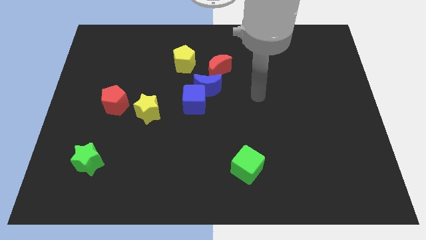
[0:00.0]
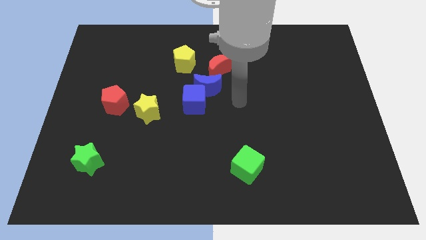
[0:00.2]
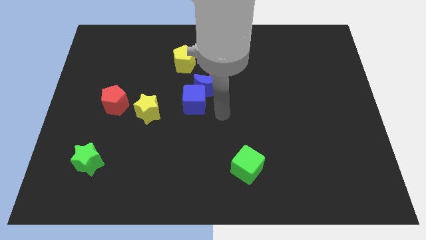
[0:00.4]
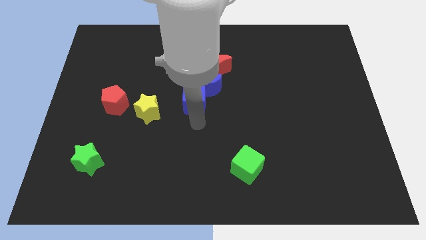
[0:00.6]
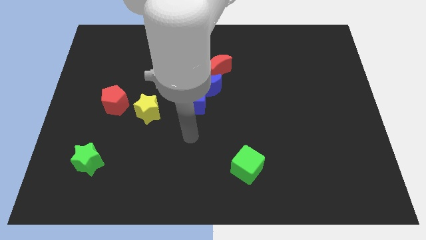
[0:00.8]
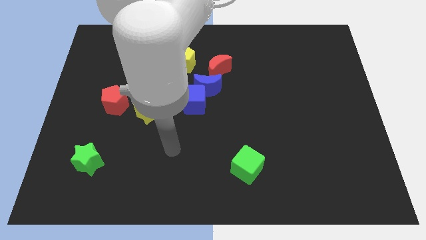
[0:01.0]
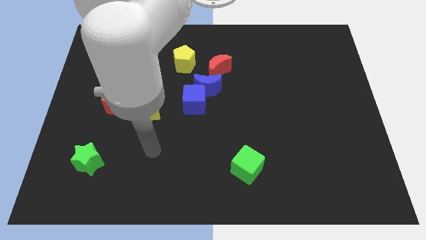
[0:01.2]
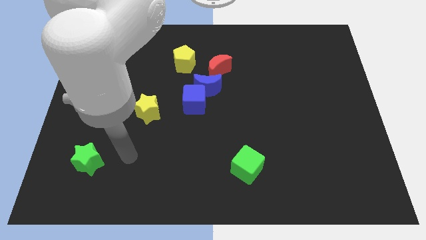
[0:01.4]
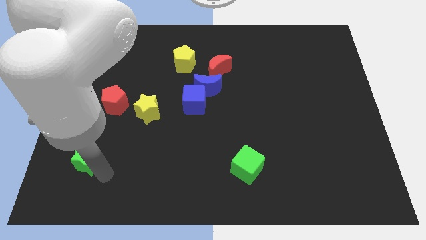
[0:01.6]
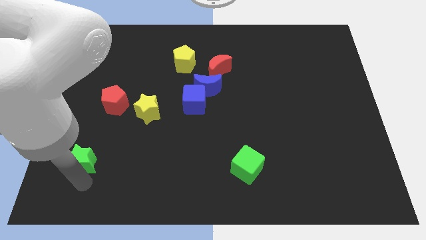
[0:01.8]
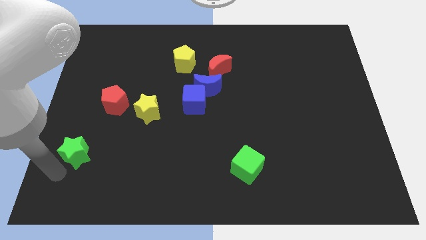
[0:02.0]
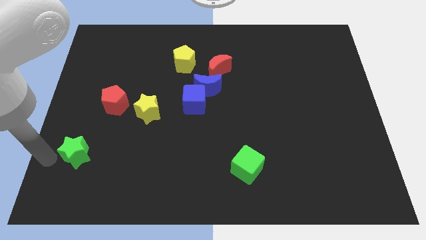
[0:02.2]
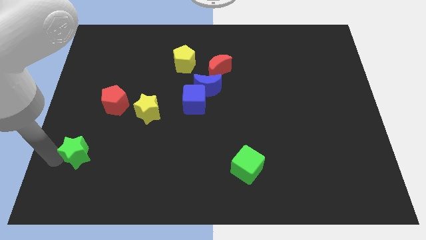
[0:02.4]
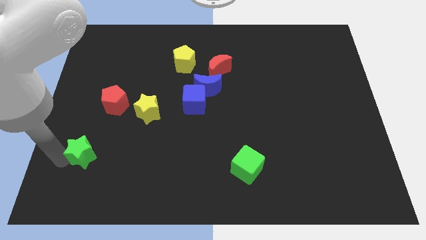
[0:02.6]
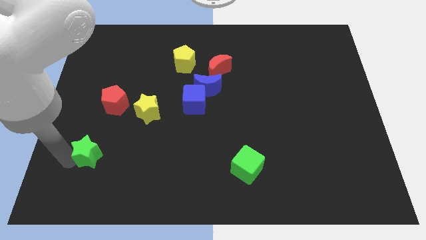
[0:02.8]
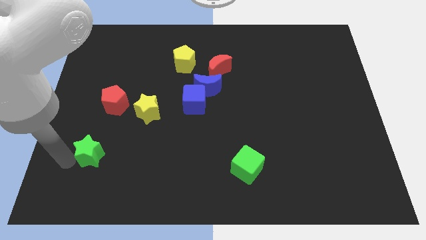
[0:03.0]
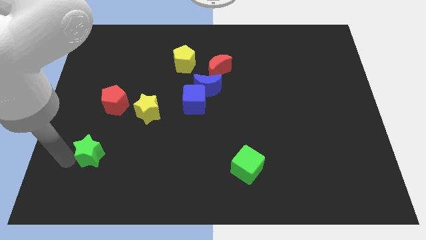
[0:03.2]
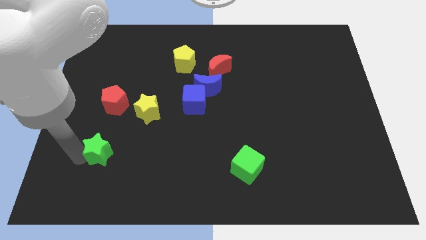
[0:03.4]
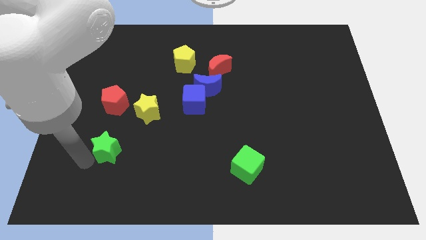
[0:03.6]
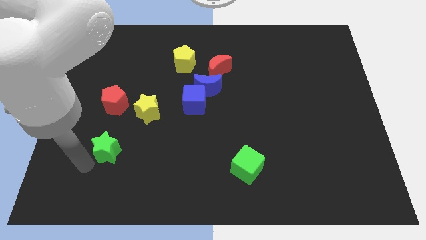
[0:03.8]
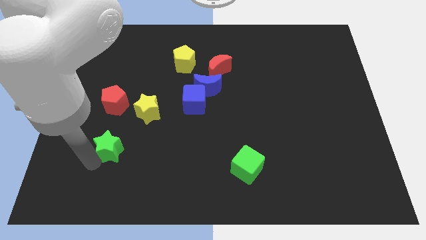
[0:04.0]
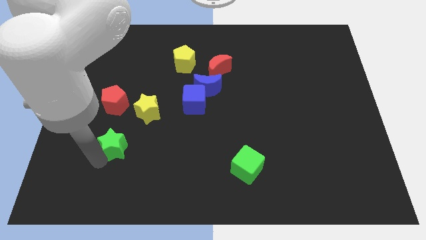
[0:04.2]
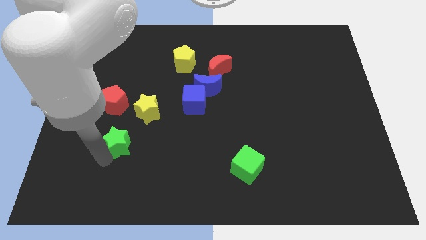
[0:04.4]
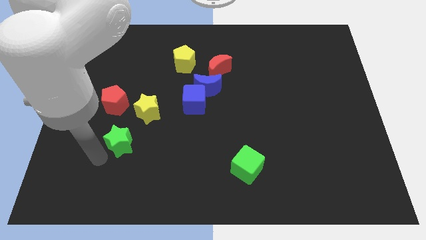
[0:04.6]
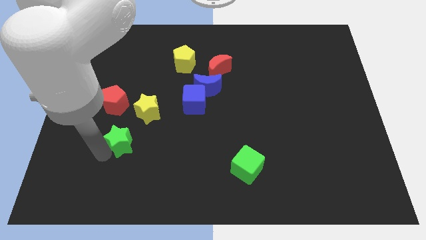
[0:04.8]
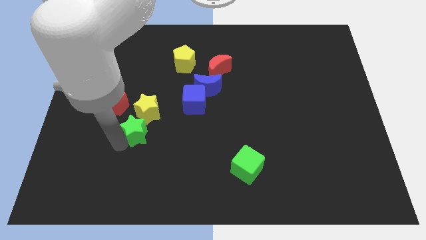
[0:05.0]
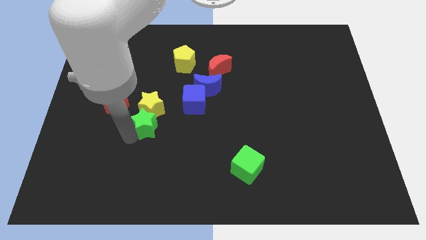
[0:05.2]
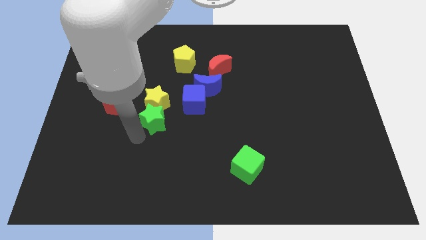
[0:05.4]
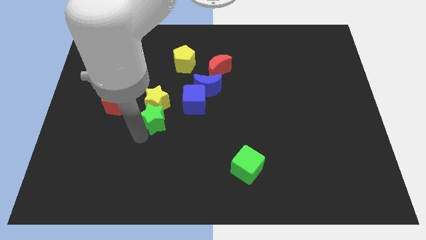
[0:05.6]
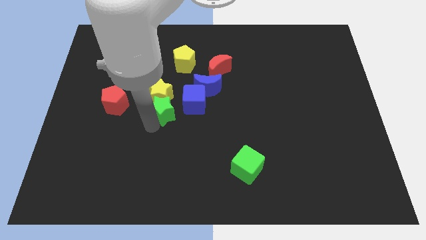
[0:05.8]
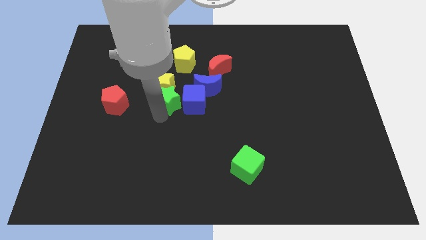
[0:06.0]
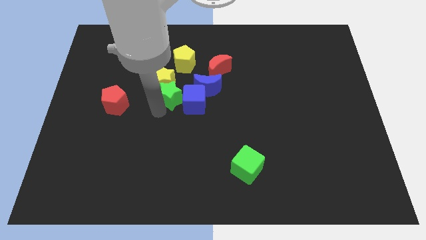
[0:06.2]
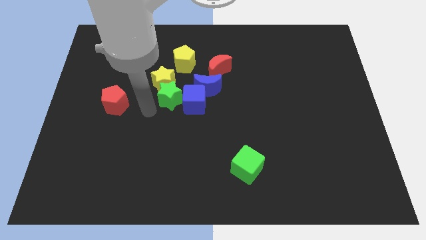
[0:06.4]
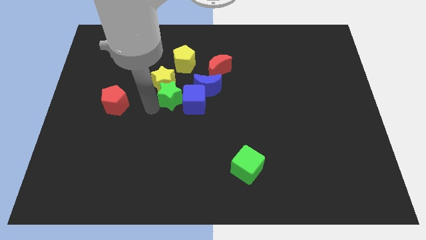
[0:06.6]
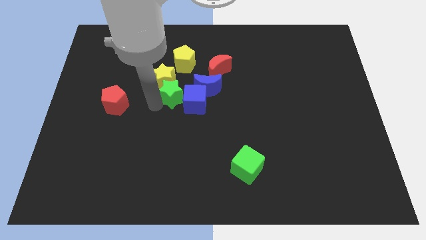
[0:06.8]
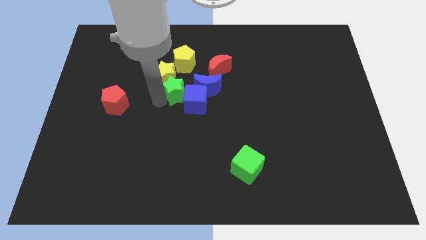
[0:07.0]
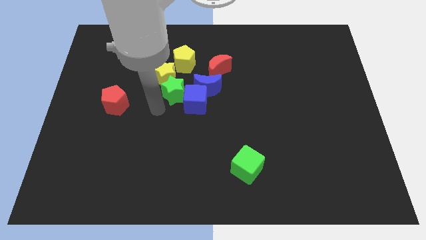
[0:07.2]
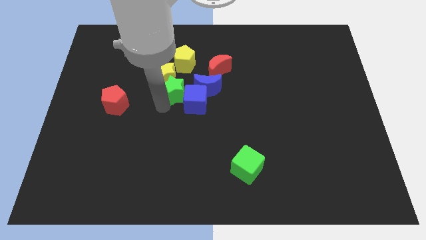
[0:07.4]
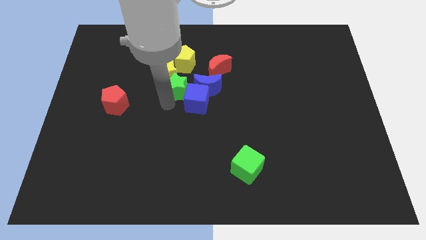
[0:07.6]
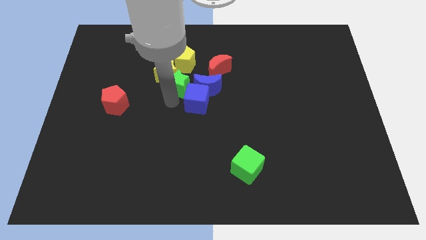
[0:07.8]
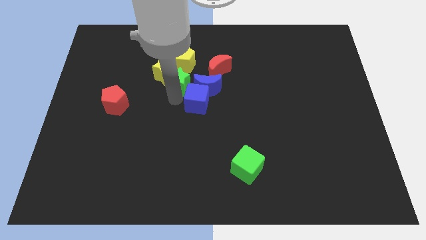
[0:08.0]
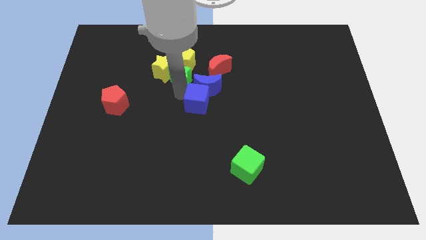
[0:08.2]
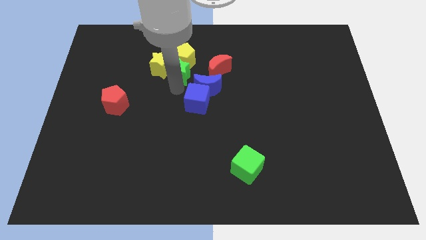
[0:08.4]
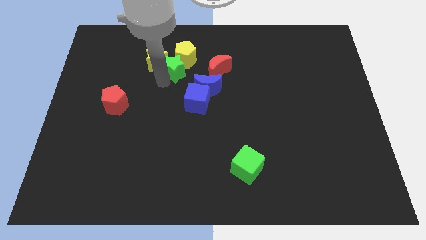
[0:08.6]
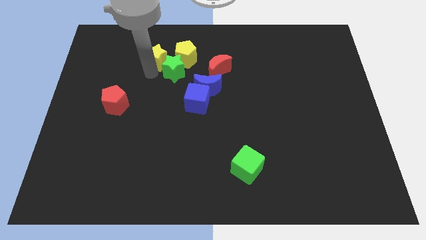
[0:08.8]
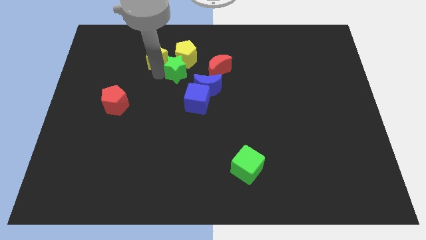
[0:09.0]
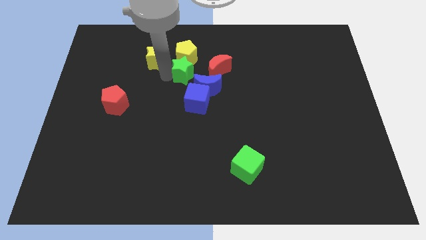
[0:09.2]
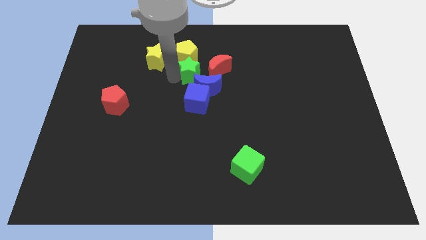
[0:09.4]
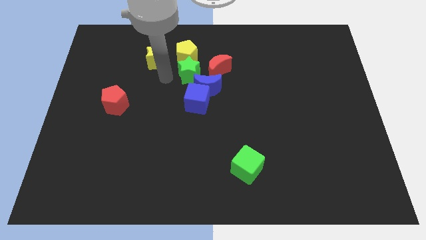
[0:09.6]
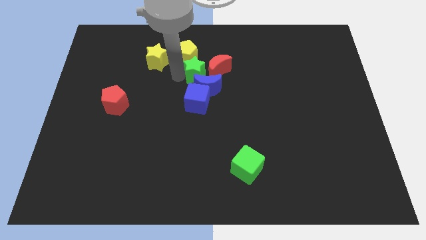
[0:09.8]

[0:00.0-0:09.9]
move the green star close to the red moon

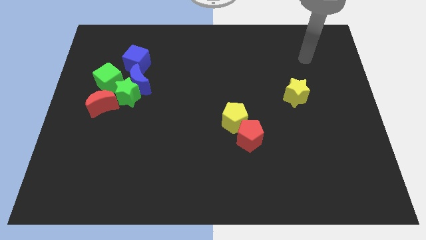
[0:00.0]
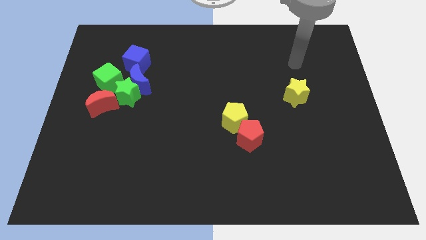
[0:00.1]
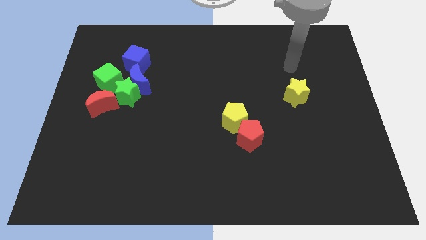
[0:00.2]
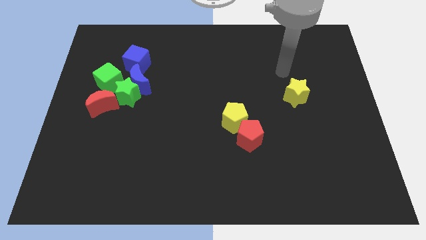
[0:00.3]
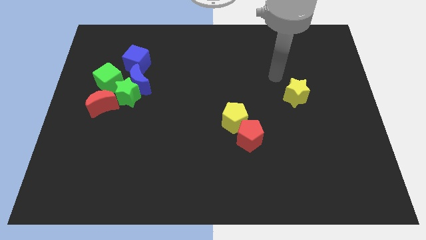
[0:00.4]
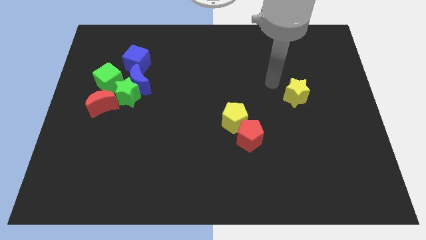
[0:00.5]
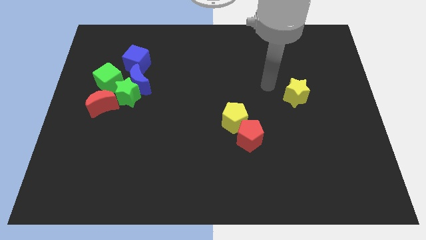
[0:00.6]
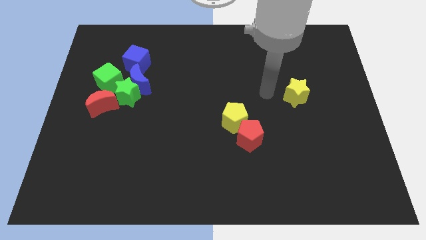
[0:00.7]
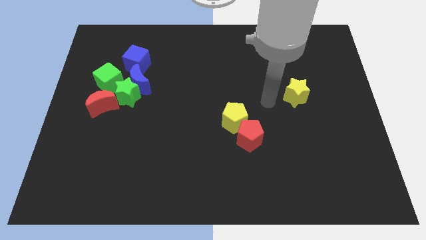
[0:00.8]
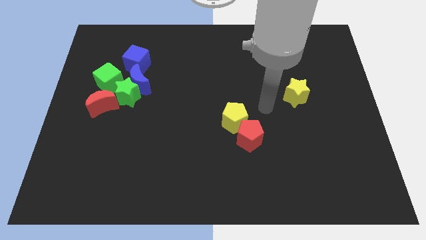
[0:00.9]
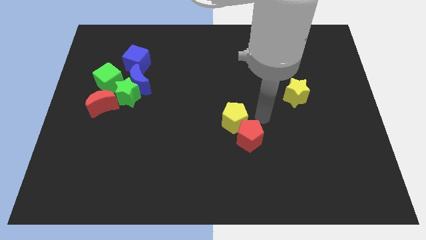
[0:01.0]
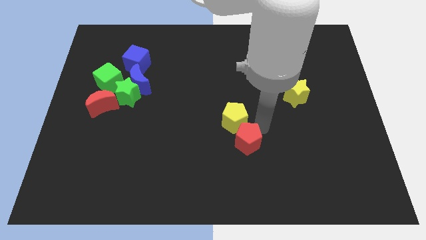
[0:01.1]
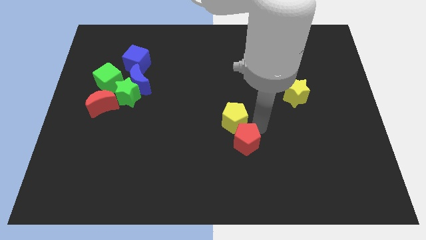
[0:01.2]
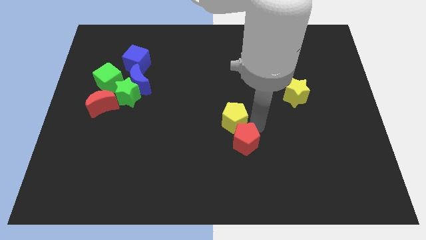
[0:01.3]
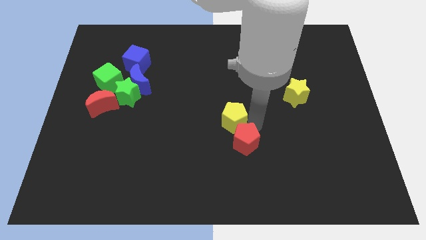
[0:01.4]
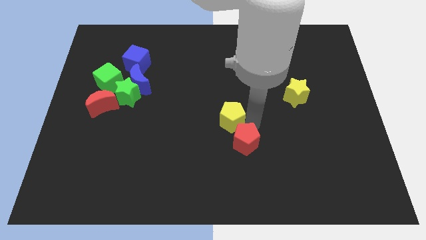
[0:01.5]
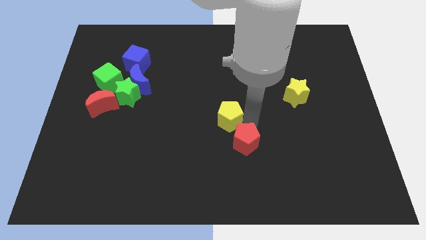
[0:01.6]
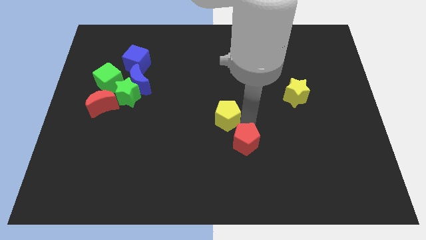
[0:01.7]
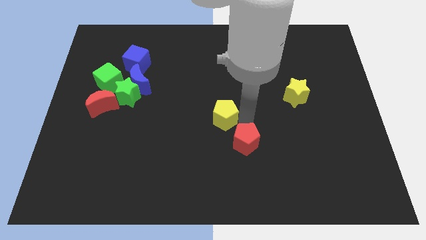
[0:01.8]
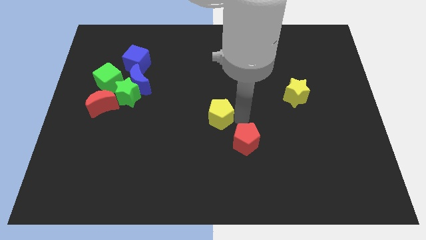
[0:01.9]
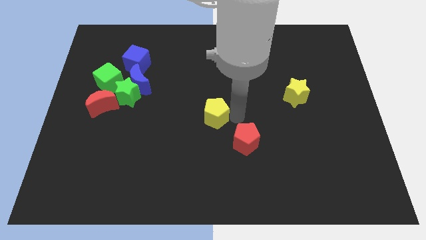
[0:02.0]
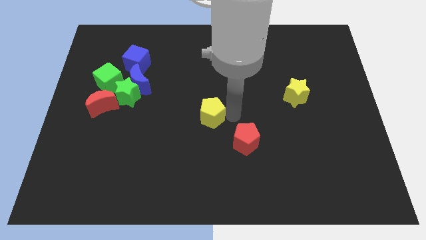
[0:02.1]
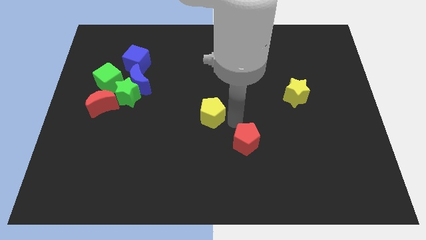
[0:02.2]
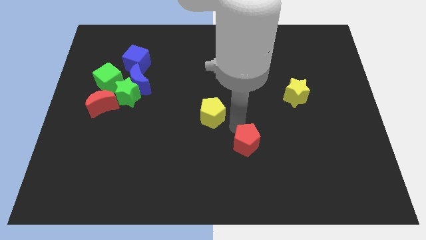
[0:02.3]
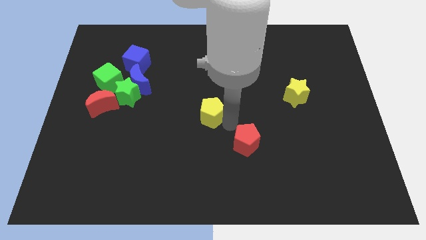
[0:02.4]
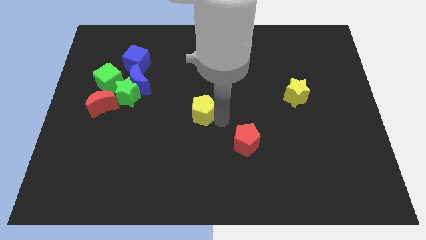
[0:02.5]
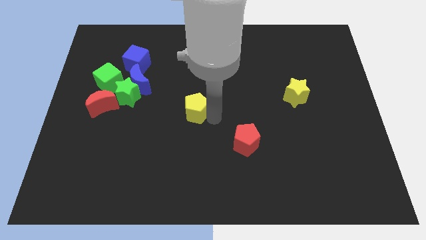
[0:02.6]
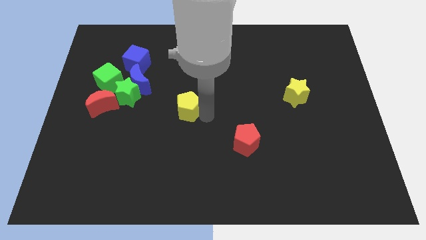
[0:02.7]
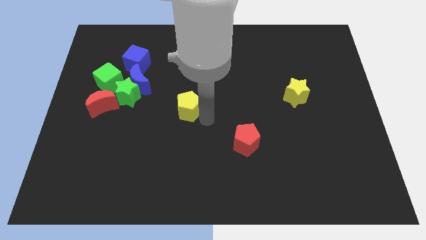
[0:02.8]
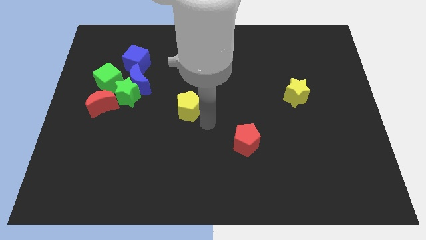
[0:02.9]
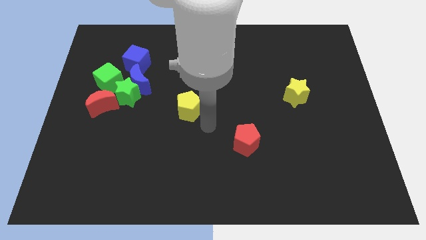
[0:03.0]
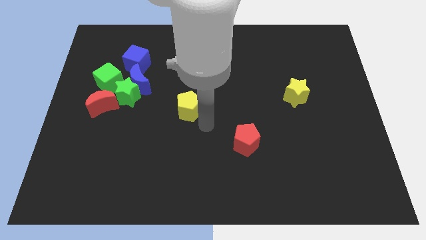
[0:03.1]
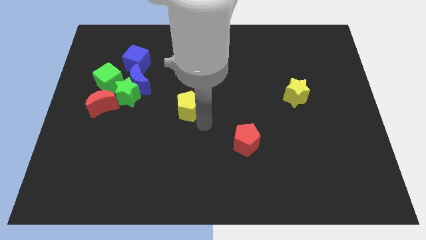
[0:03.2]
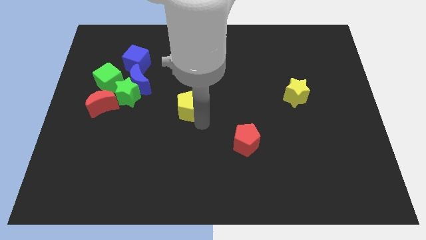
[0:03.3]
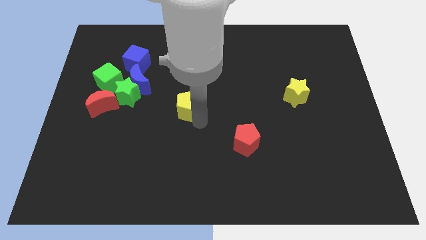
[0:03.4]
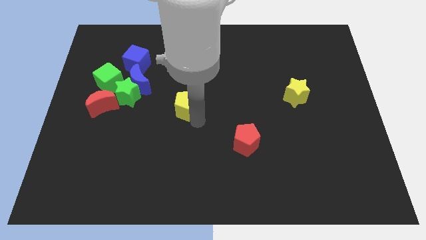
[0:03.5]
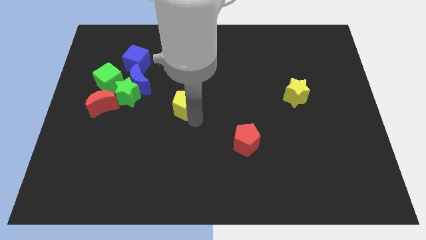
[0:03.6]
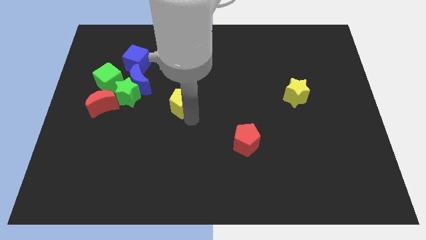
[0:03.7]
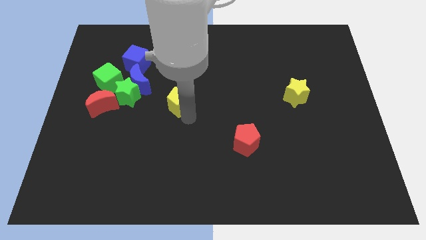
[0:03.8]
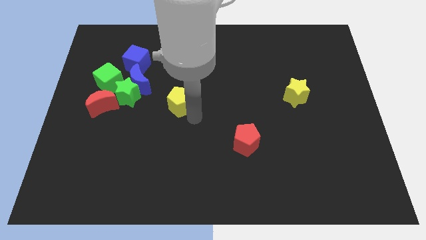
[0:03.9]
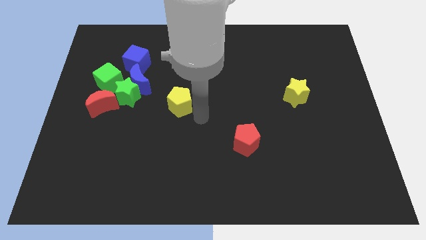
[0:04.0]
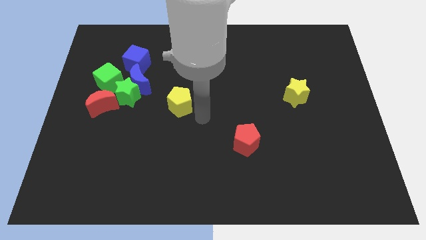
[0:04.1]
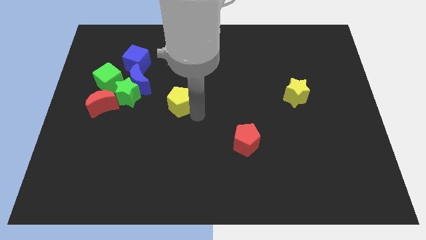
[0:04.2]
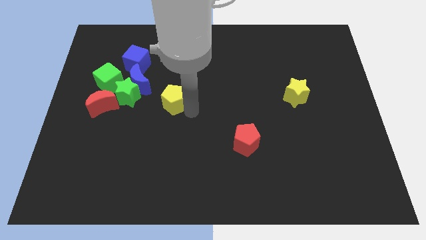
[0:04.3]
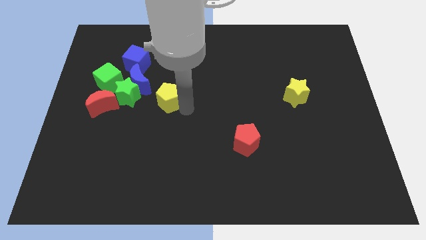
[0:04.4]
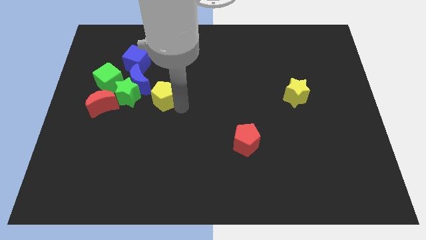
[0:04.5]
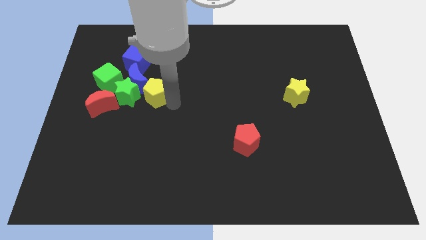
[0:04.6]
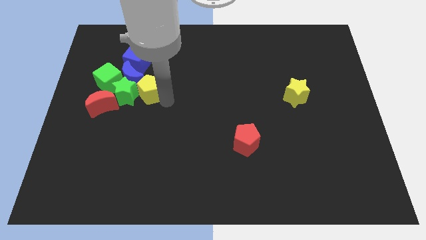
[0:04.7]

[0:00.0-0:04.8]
put the yellow pentagon next to the blue moon
